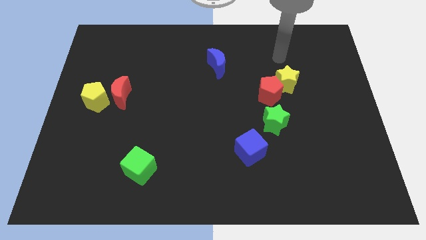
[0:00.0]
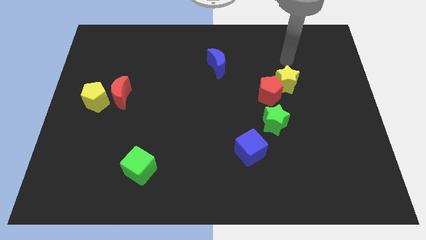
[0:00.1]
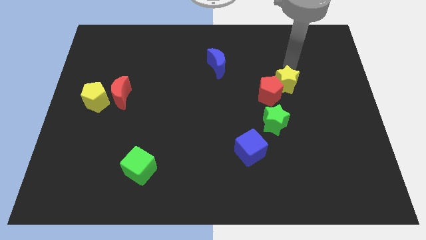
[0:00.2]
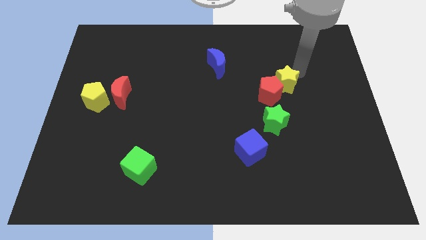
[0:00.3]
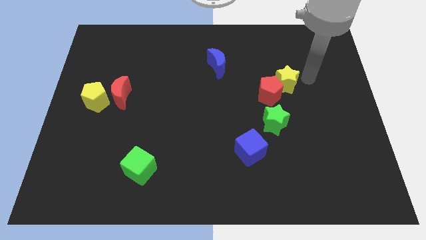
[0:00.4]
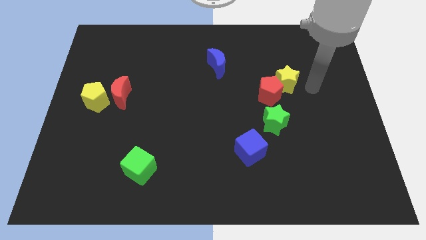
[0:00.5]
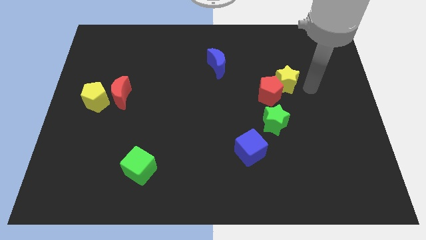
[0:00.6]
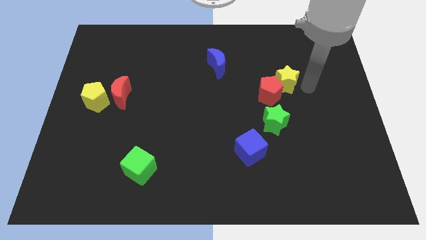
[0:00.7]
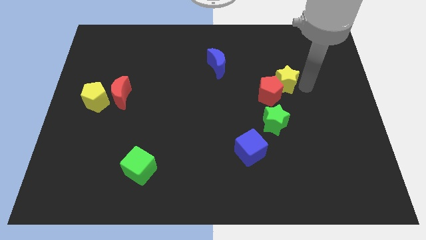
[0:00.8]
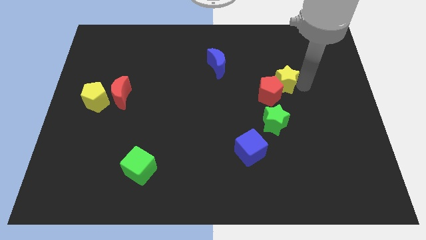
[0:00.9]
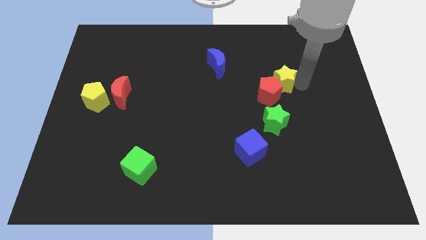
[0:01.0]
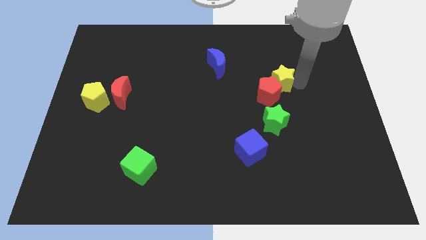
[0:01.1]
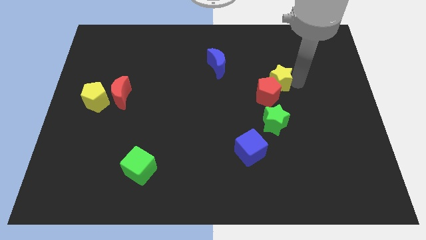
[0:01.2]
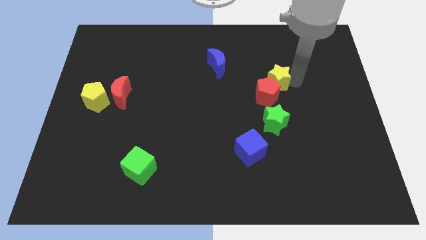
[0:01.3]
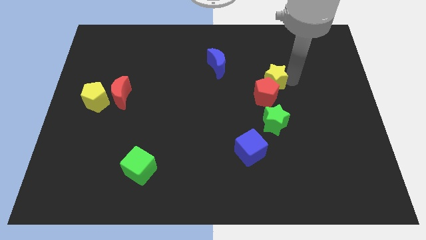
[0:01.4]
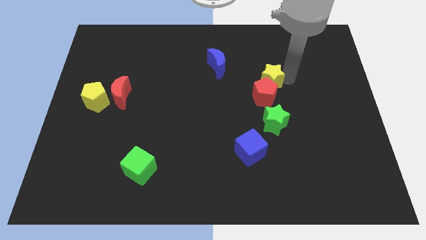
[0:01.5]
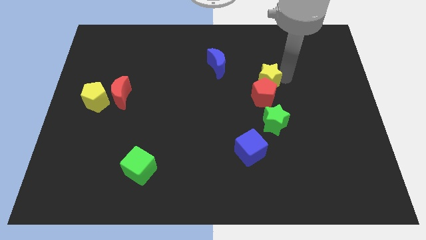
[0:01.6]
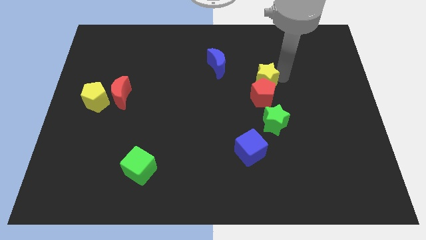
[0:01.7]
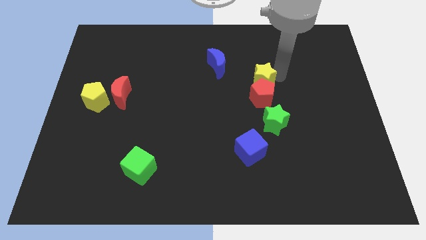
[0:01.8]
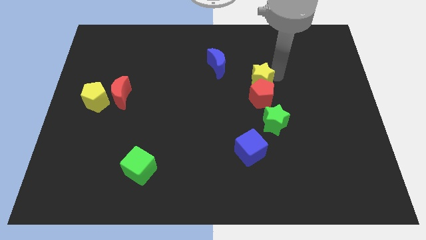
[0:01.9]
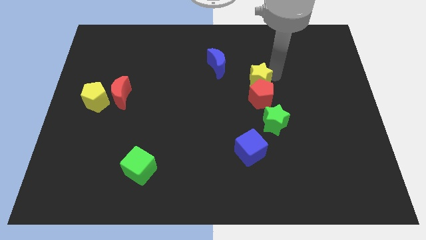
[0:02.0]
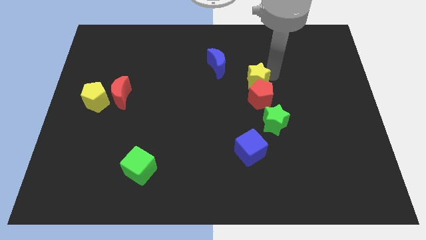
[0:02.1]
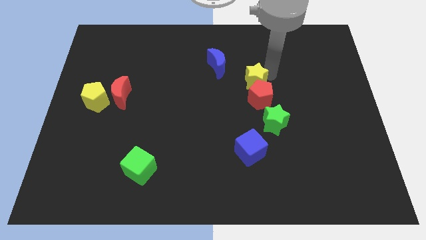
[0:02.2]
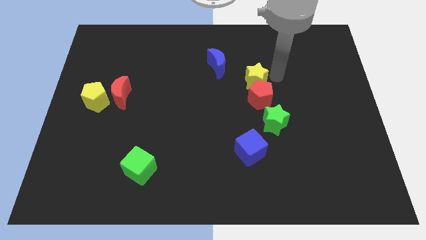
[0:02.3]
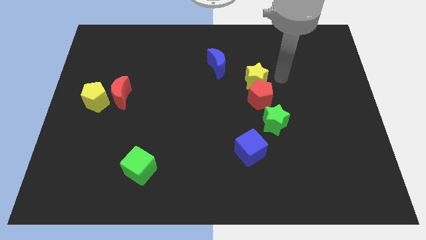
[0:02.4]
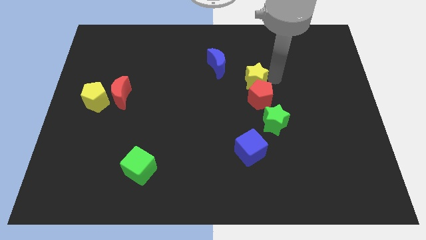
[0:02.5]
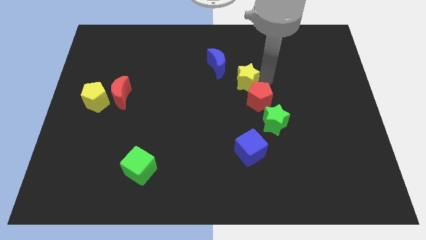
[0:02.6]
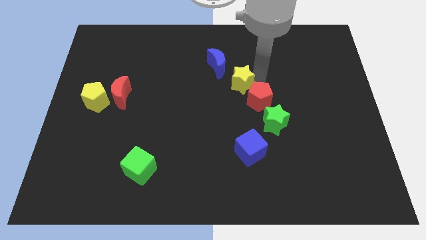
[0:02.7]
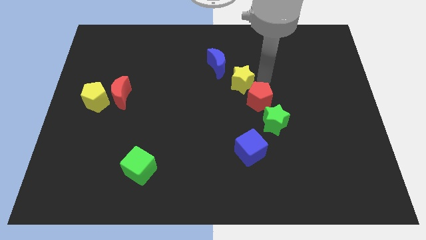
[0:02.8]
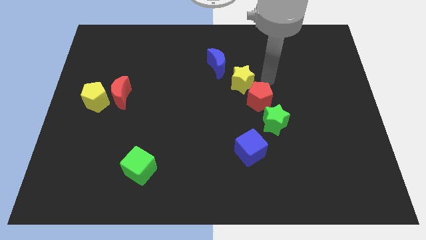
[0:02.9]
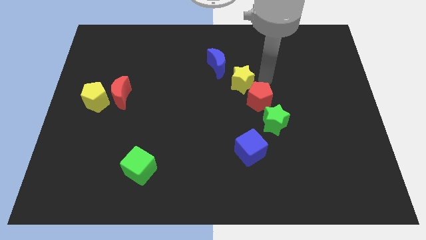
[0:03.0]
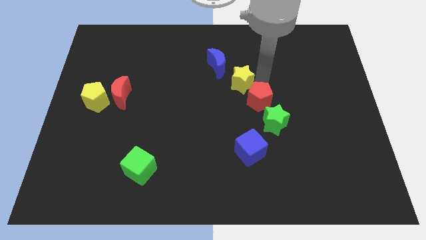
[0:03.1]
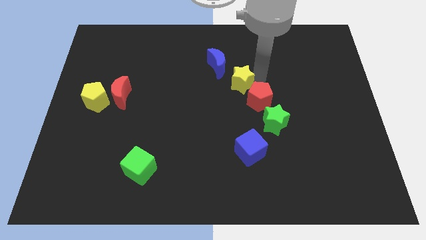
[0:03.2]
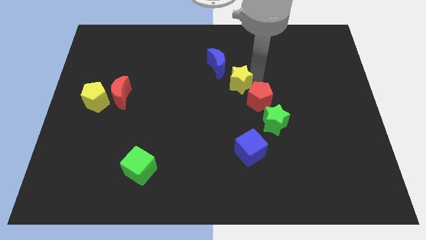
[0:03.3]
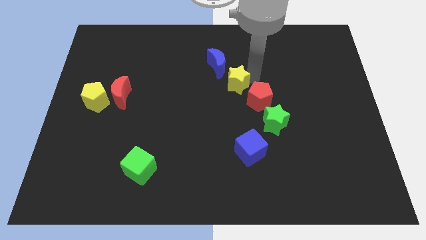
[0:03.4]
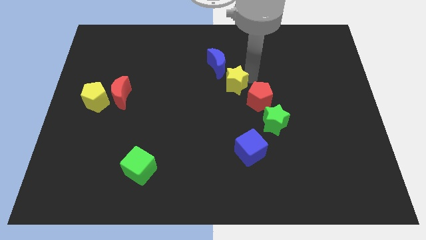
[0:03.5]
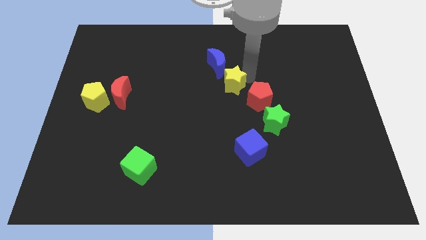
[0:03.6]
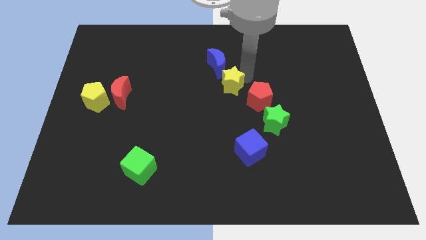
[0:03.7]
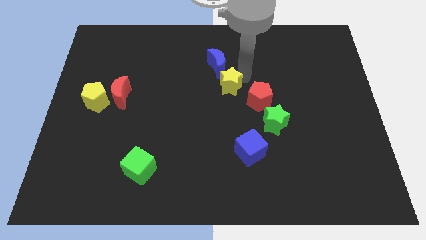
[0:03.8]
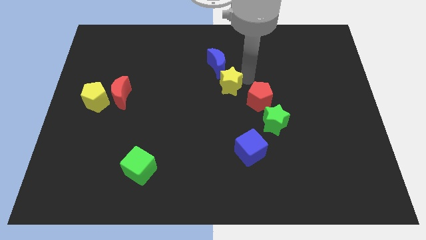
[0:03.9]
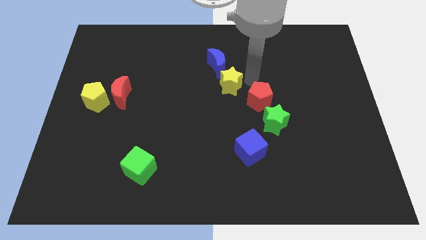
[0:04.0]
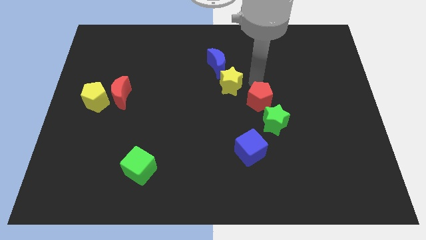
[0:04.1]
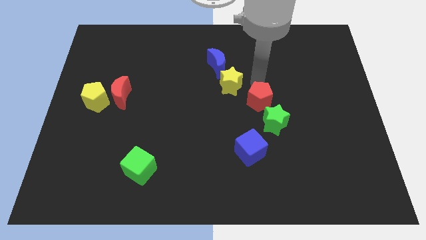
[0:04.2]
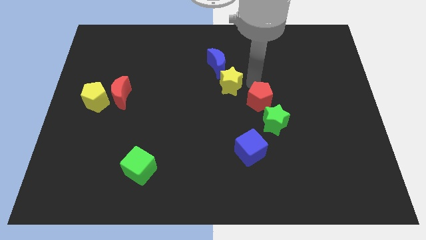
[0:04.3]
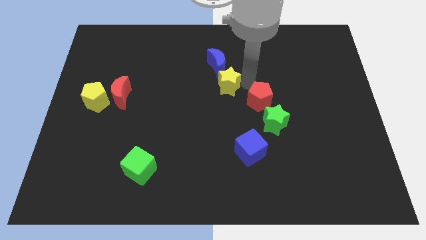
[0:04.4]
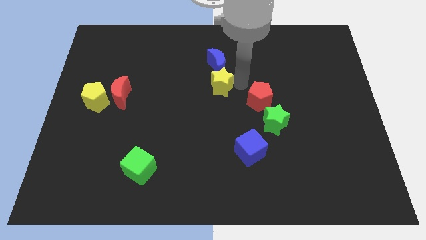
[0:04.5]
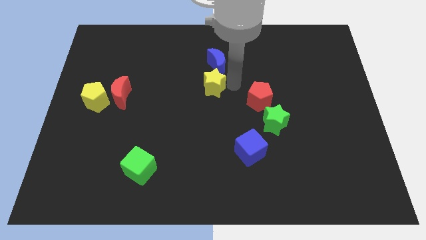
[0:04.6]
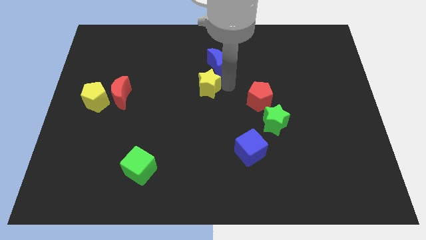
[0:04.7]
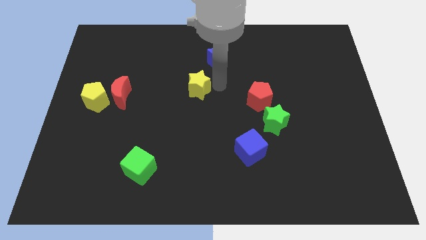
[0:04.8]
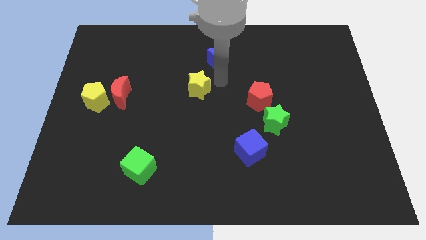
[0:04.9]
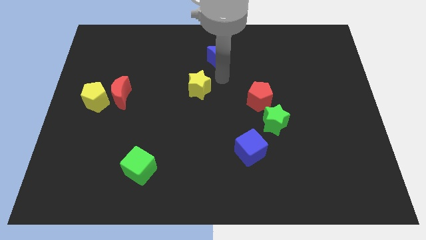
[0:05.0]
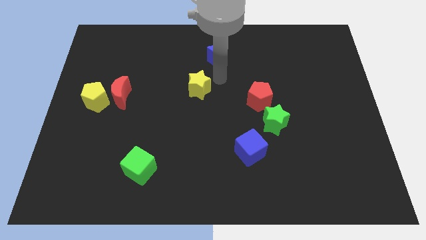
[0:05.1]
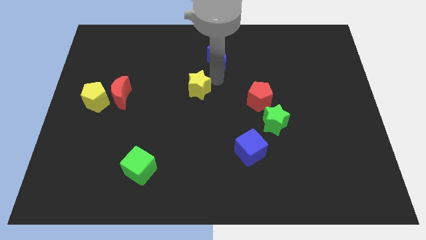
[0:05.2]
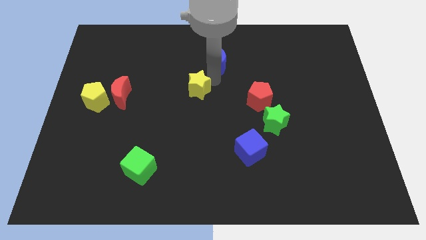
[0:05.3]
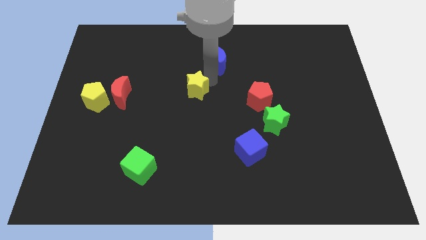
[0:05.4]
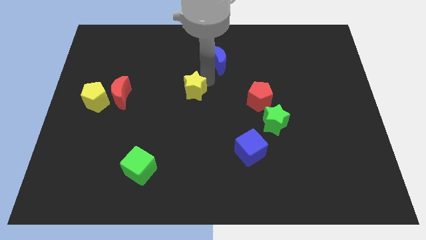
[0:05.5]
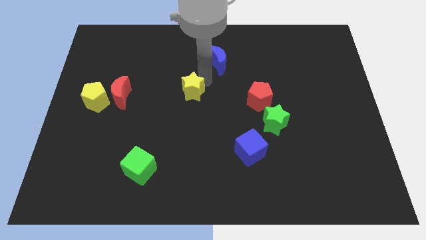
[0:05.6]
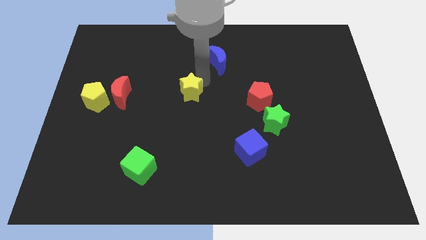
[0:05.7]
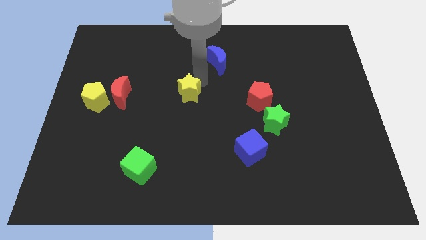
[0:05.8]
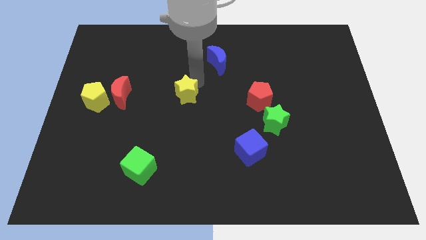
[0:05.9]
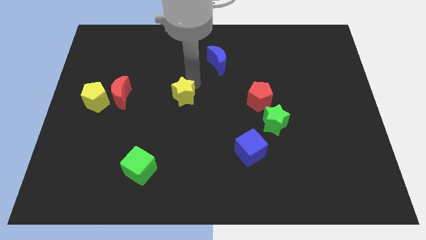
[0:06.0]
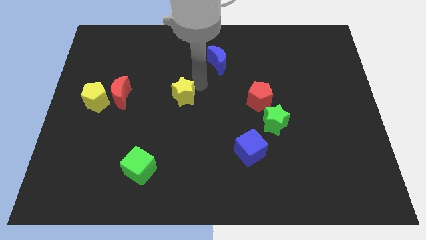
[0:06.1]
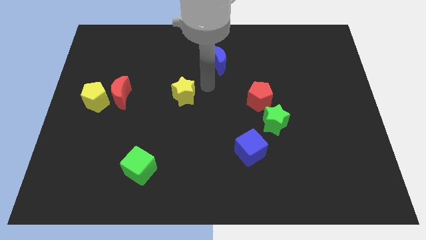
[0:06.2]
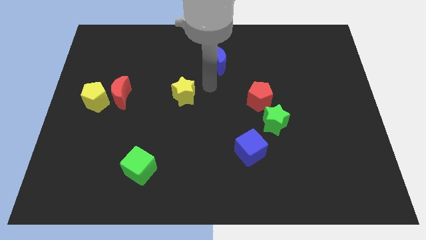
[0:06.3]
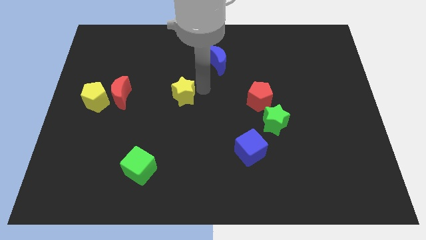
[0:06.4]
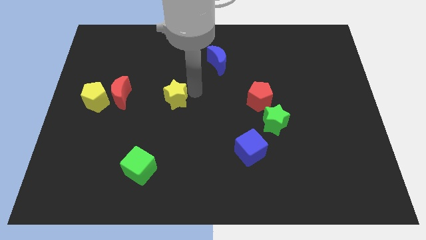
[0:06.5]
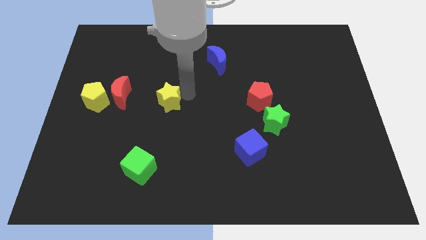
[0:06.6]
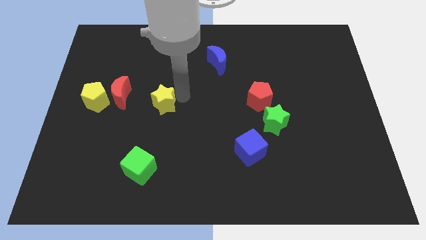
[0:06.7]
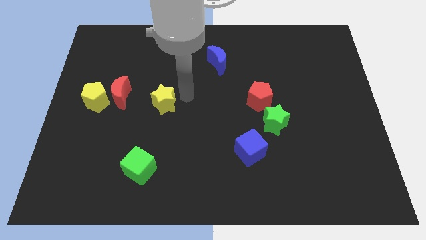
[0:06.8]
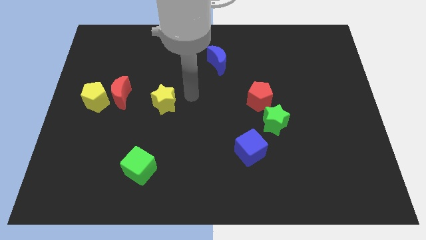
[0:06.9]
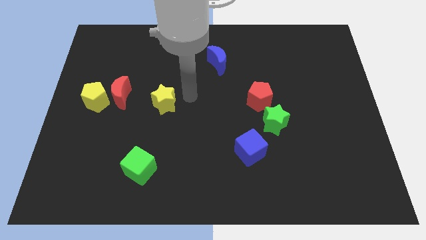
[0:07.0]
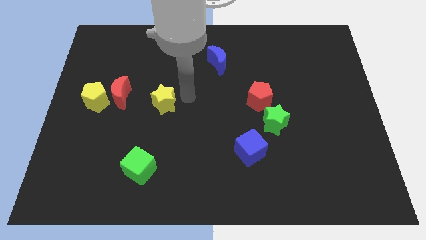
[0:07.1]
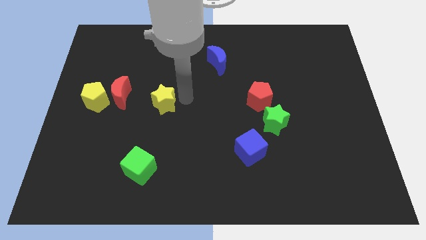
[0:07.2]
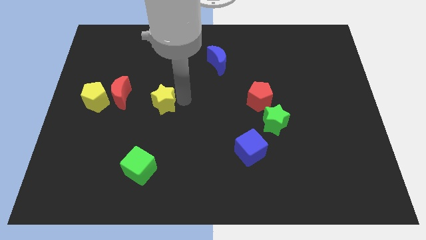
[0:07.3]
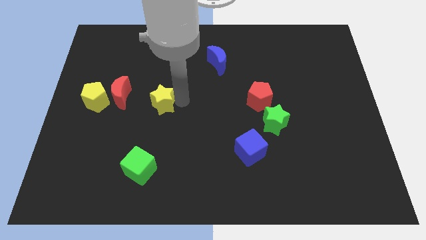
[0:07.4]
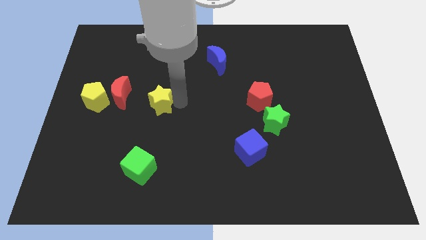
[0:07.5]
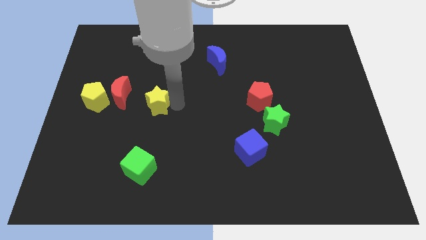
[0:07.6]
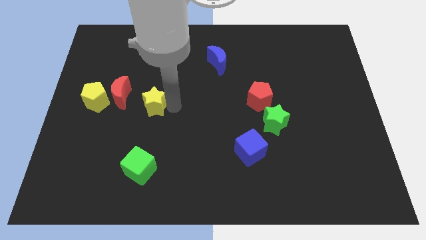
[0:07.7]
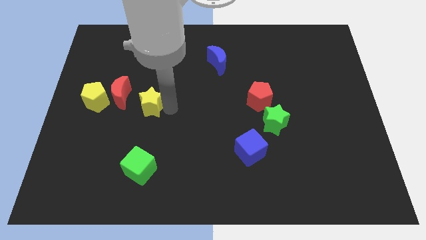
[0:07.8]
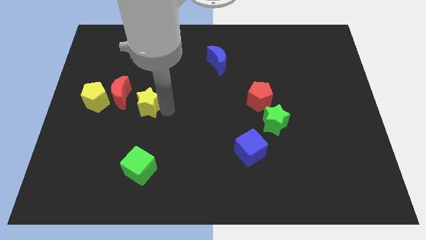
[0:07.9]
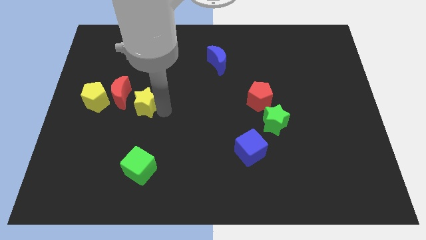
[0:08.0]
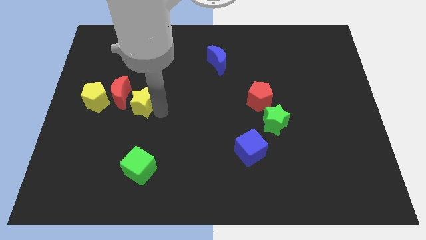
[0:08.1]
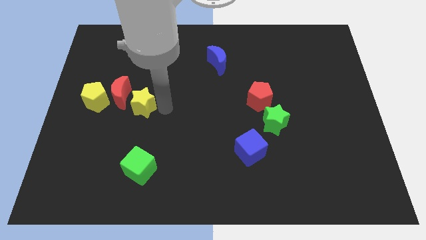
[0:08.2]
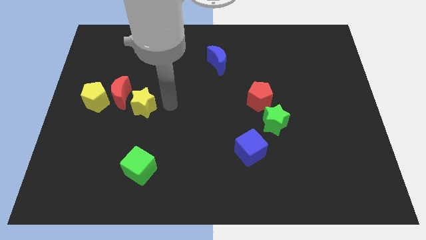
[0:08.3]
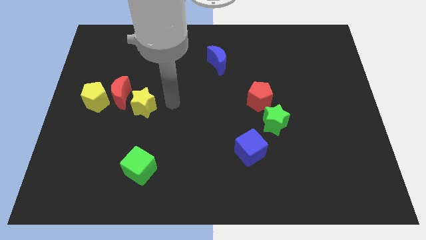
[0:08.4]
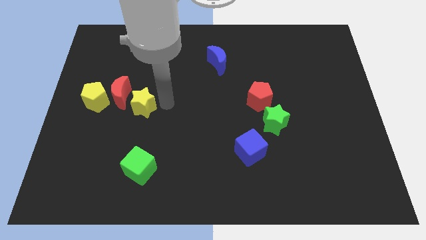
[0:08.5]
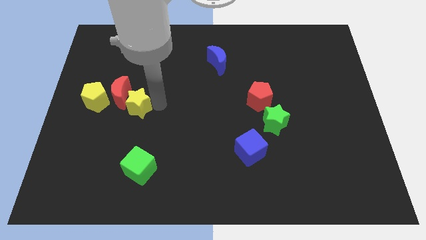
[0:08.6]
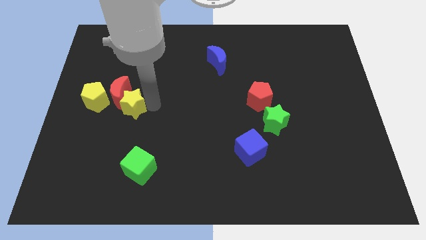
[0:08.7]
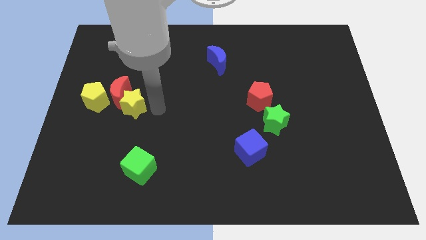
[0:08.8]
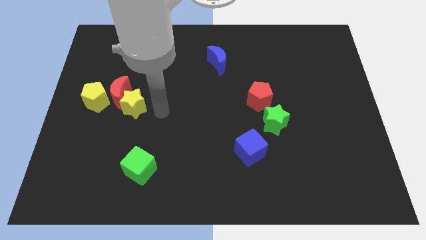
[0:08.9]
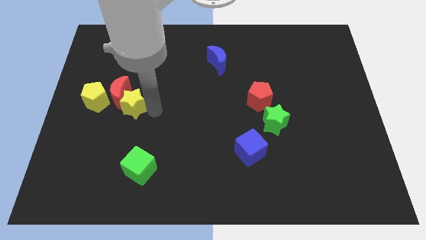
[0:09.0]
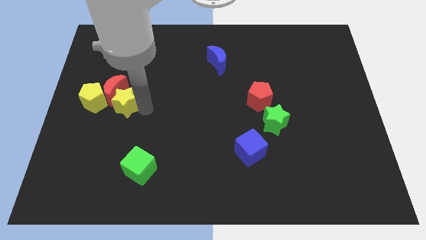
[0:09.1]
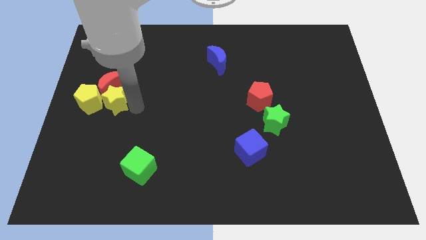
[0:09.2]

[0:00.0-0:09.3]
move the yellow star next to the yellow pentagon
